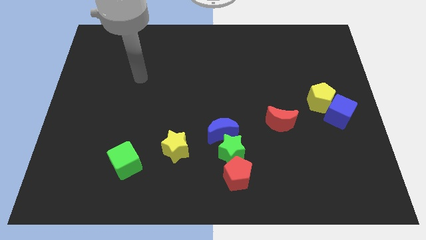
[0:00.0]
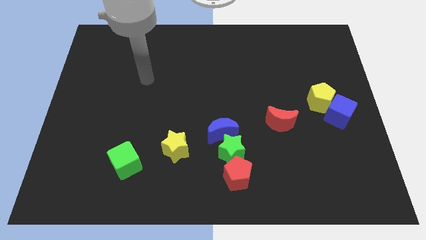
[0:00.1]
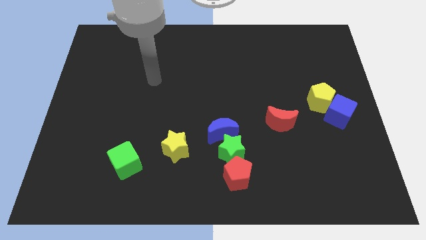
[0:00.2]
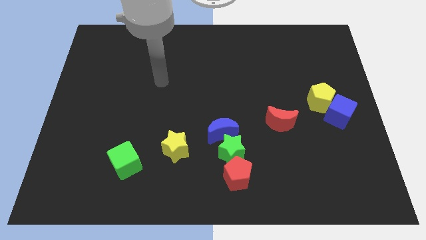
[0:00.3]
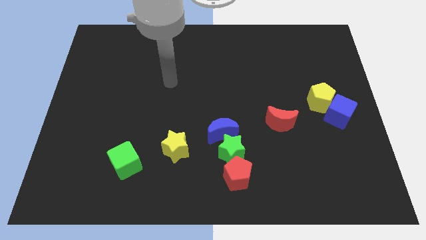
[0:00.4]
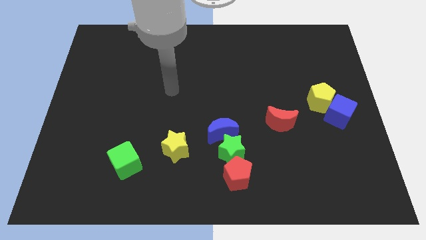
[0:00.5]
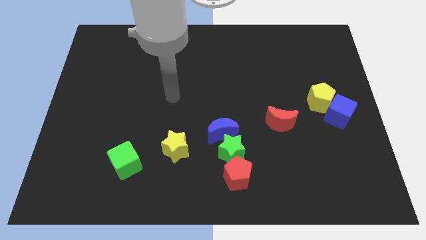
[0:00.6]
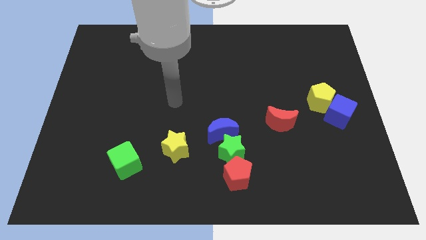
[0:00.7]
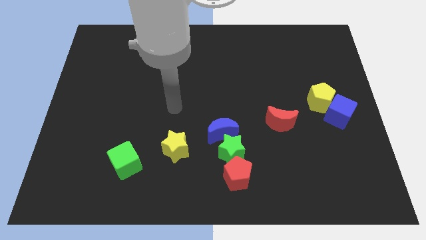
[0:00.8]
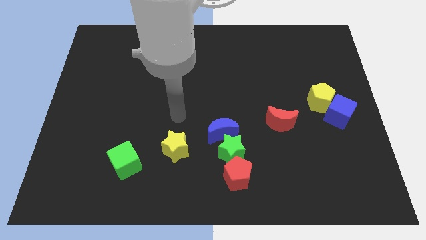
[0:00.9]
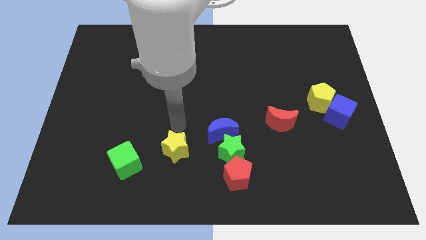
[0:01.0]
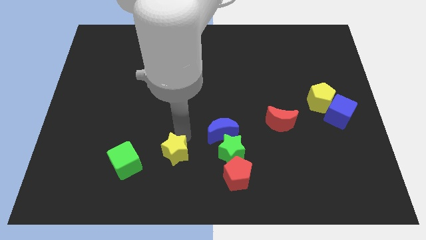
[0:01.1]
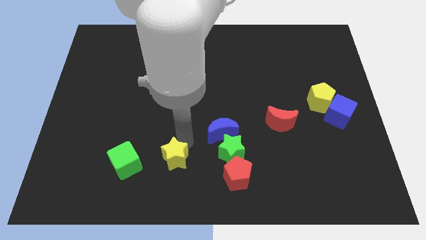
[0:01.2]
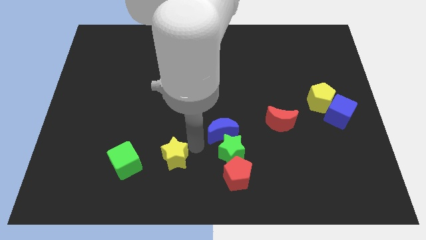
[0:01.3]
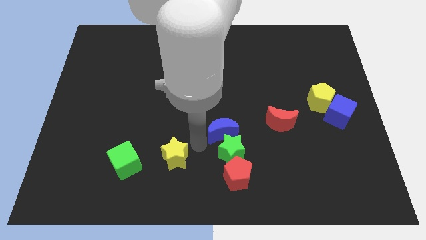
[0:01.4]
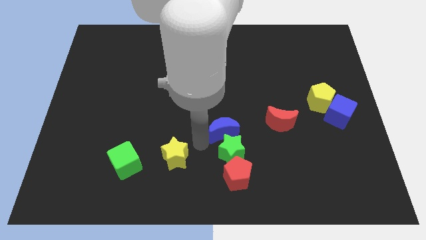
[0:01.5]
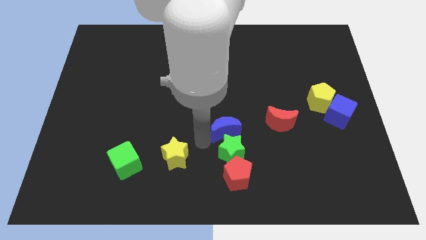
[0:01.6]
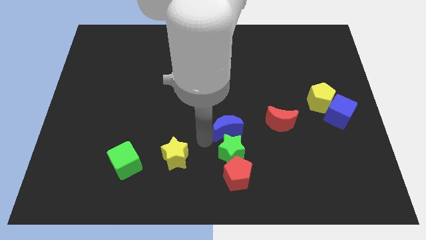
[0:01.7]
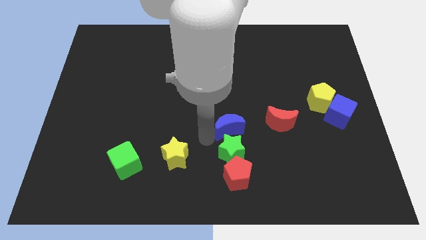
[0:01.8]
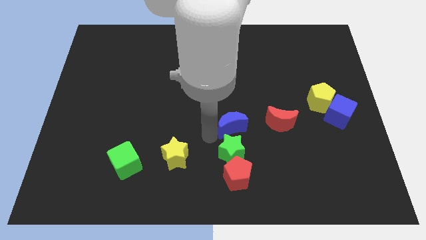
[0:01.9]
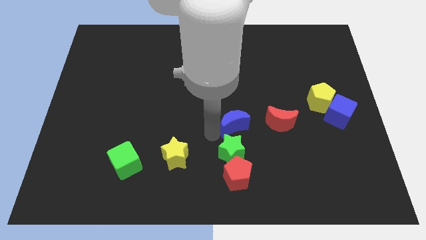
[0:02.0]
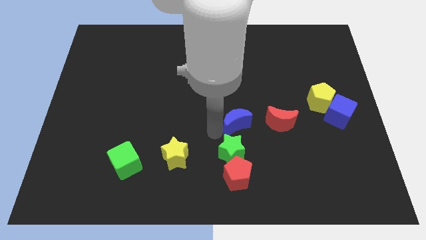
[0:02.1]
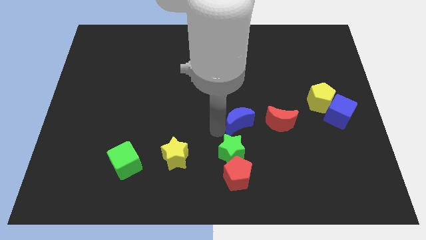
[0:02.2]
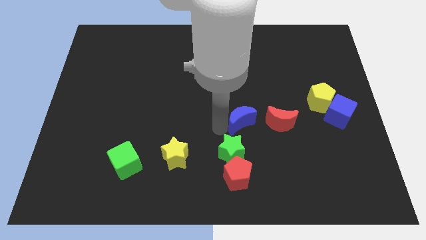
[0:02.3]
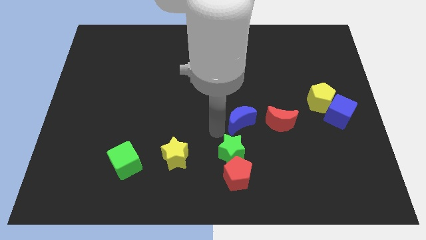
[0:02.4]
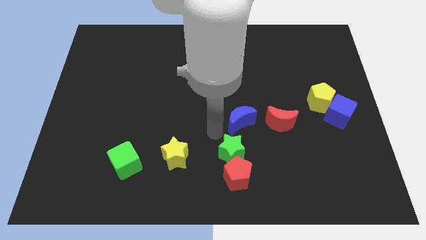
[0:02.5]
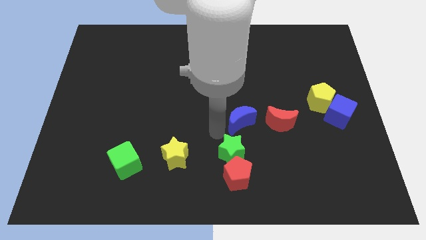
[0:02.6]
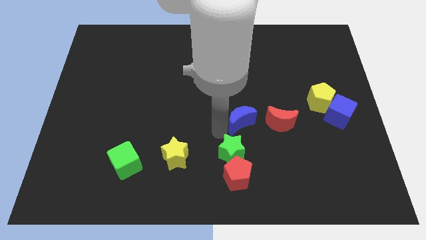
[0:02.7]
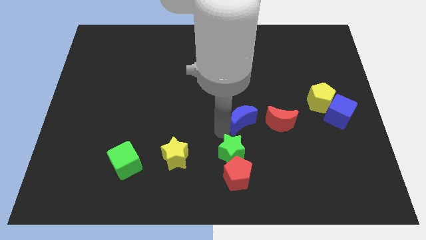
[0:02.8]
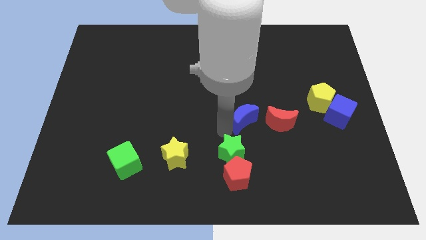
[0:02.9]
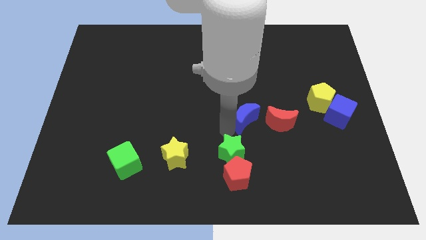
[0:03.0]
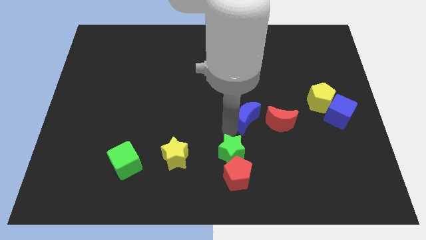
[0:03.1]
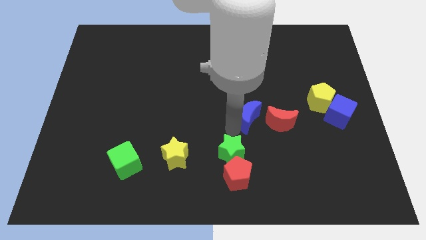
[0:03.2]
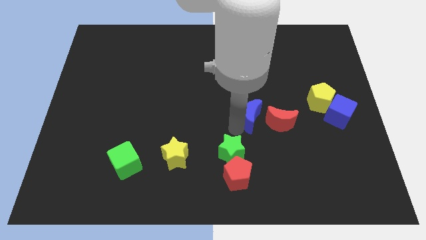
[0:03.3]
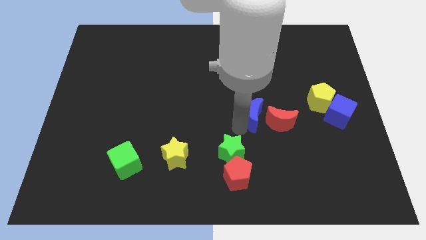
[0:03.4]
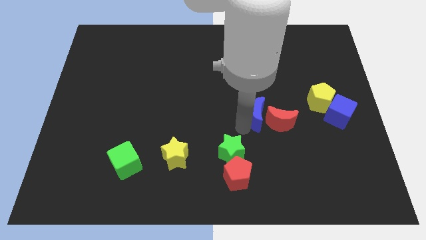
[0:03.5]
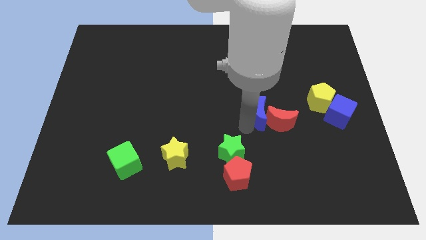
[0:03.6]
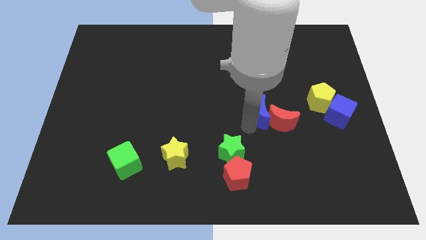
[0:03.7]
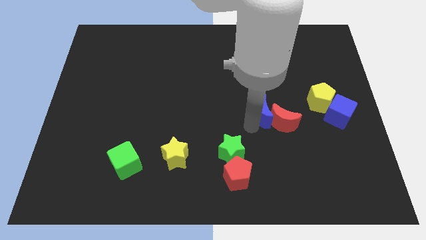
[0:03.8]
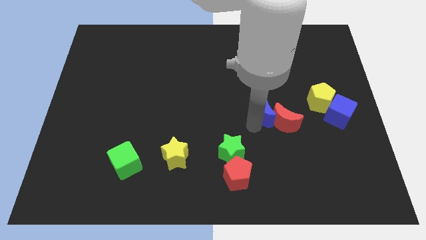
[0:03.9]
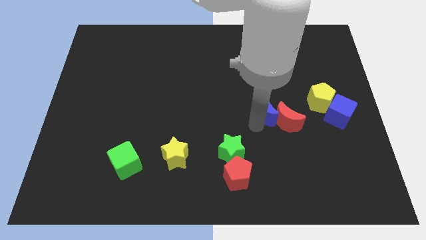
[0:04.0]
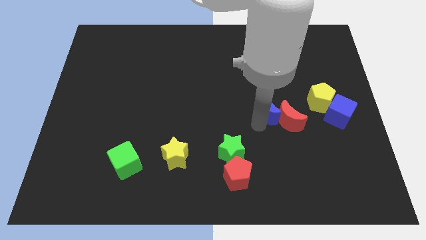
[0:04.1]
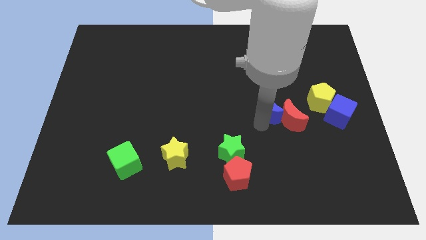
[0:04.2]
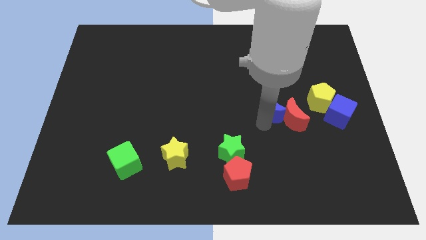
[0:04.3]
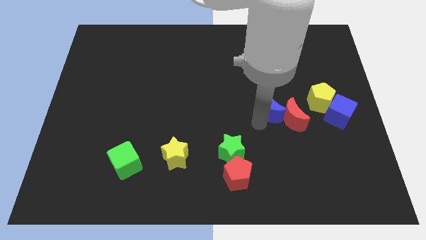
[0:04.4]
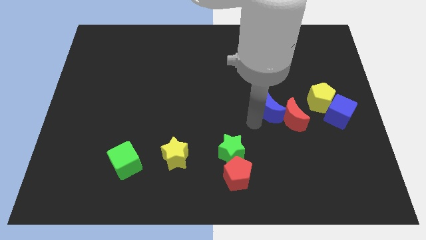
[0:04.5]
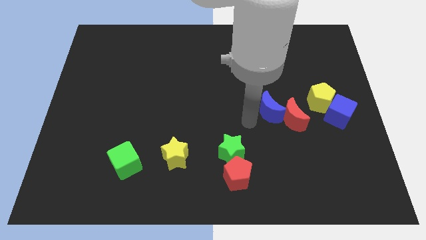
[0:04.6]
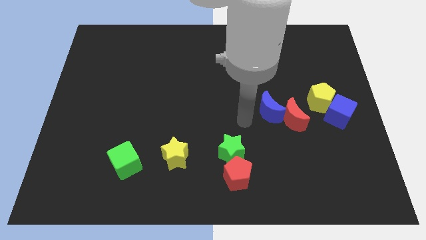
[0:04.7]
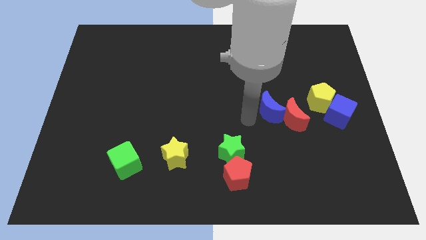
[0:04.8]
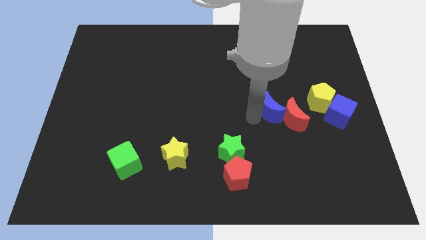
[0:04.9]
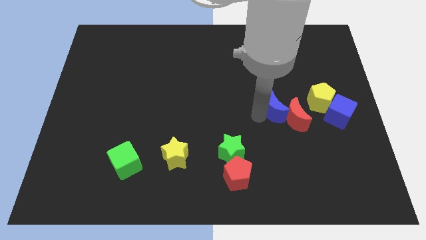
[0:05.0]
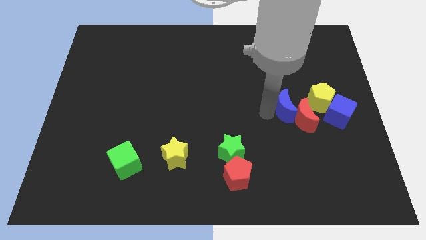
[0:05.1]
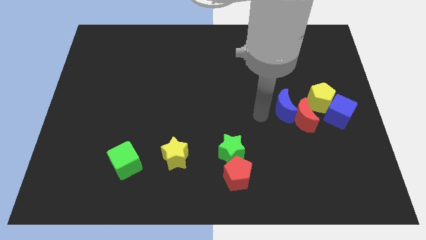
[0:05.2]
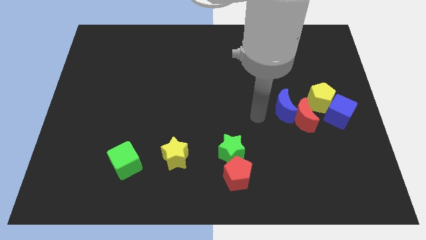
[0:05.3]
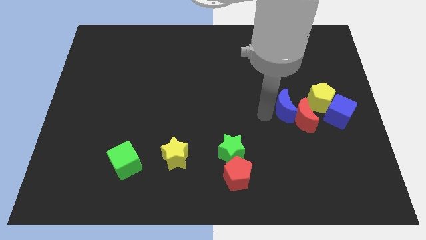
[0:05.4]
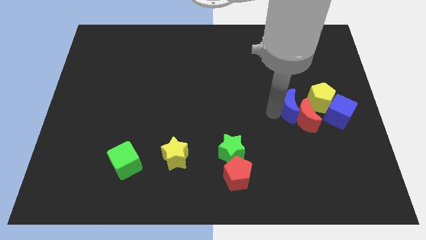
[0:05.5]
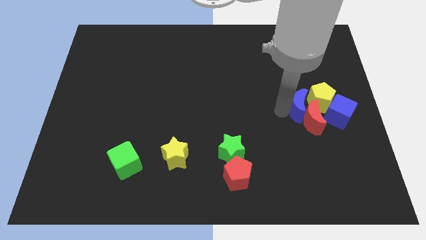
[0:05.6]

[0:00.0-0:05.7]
slide the blue moon close to the yellow pentagon

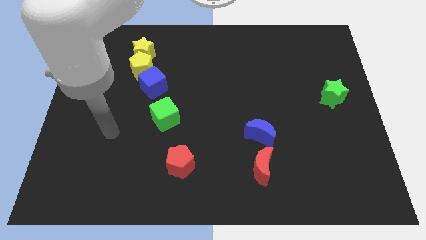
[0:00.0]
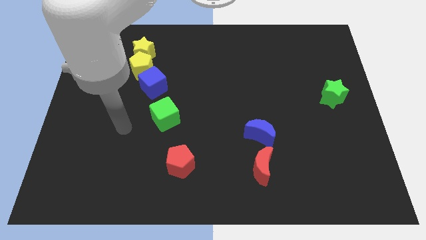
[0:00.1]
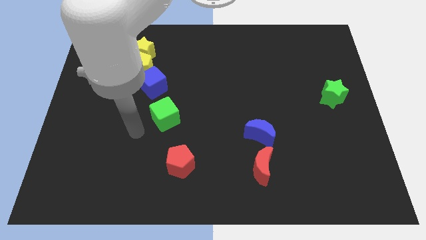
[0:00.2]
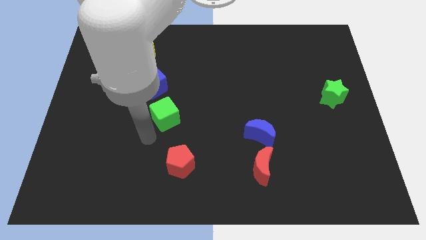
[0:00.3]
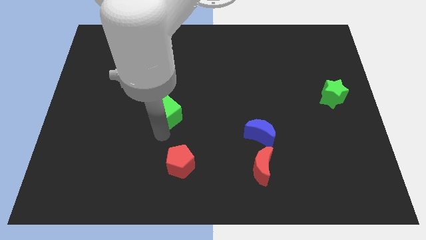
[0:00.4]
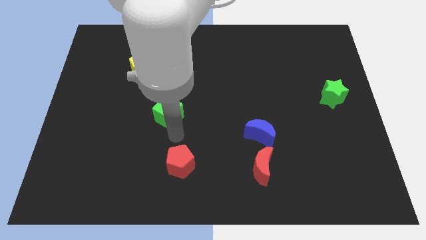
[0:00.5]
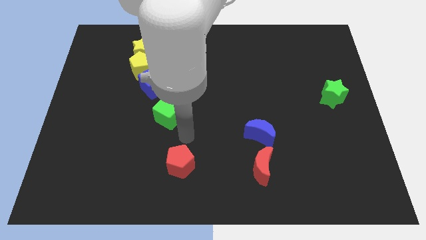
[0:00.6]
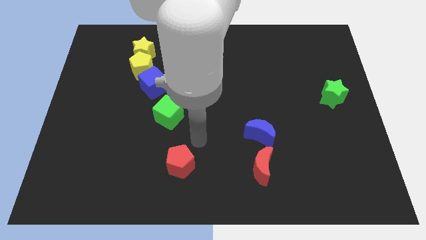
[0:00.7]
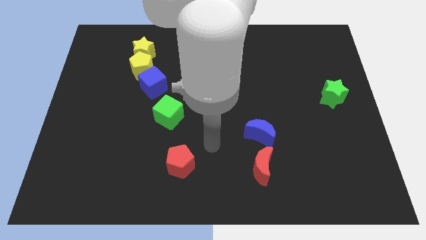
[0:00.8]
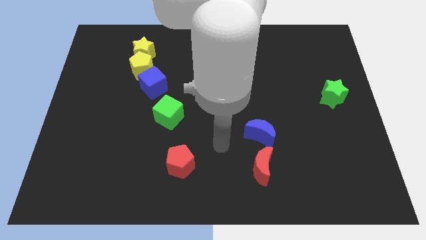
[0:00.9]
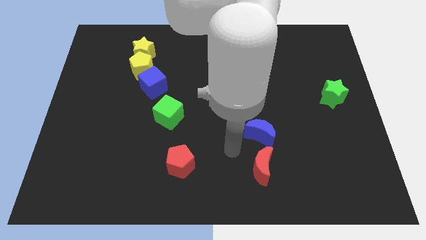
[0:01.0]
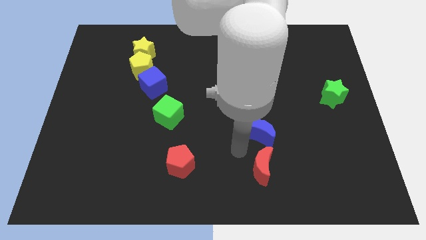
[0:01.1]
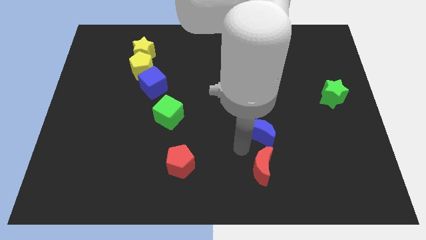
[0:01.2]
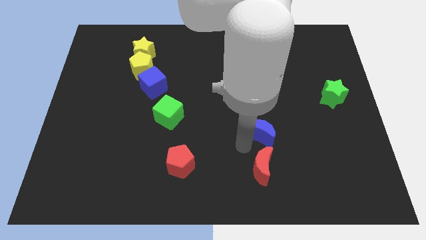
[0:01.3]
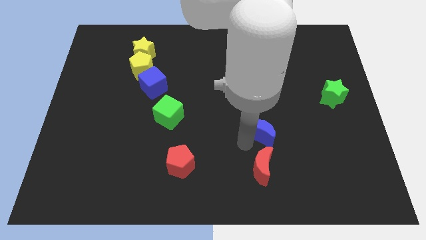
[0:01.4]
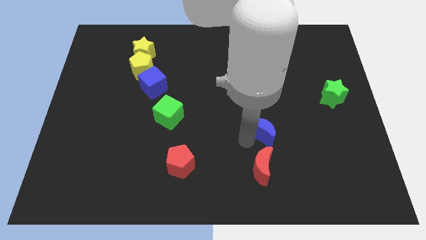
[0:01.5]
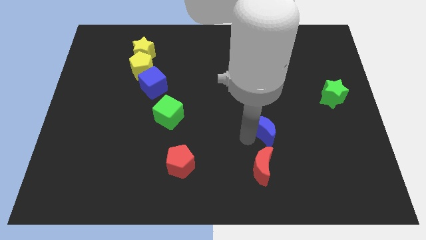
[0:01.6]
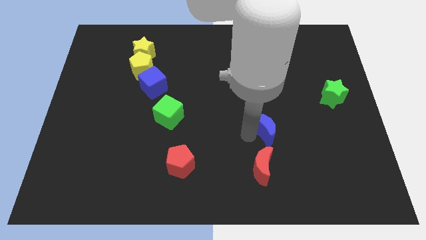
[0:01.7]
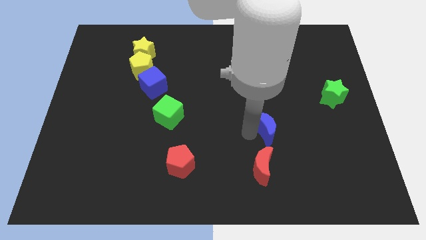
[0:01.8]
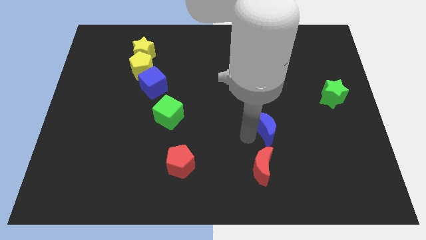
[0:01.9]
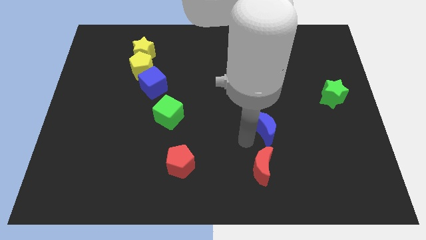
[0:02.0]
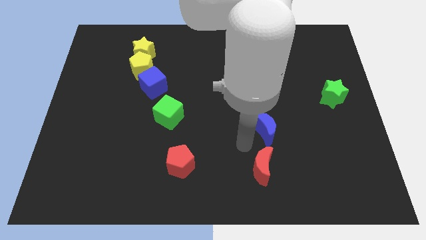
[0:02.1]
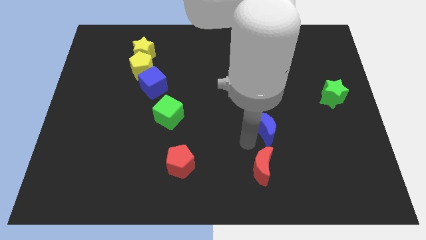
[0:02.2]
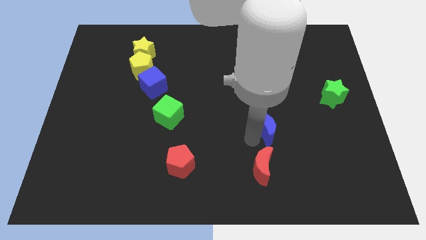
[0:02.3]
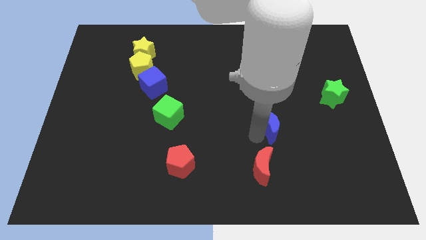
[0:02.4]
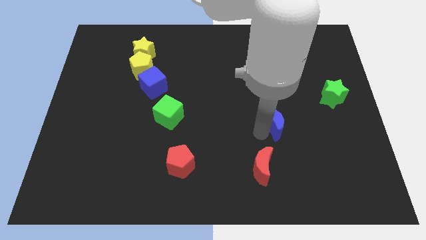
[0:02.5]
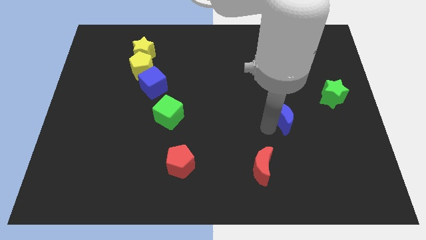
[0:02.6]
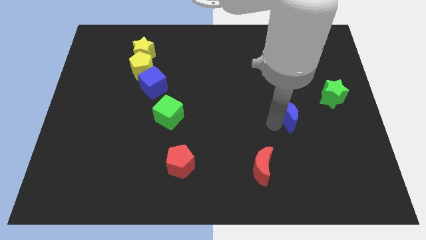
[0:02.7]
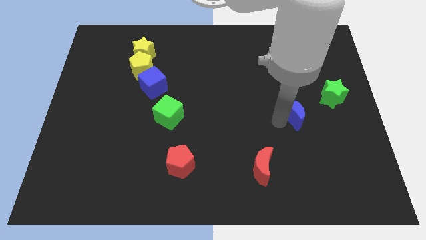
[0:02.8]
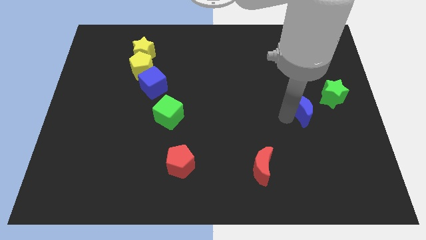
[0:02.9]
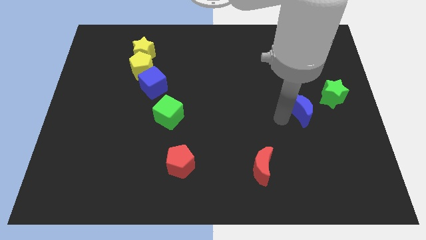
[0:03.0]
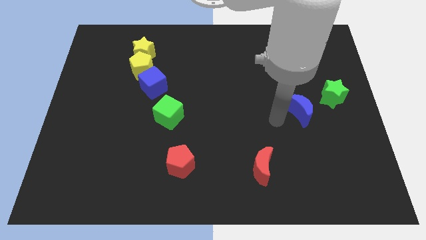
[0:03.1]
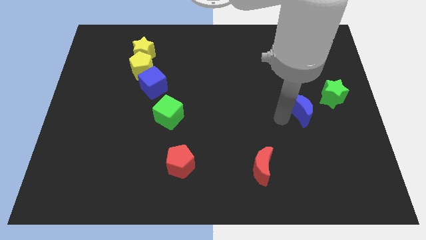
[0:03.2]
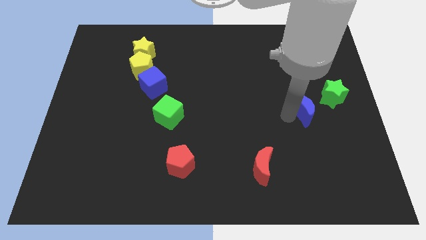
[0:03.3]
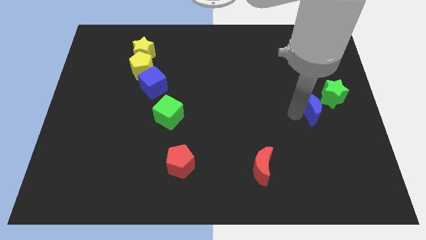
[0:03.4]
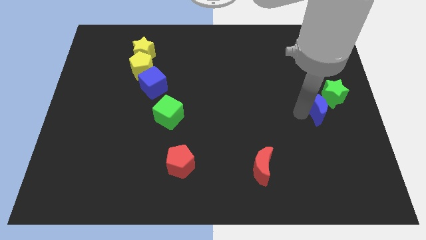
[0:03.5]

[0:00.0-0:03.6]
slide the blue moon close to the green star
